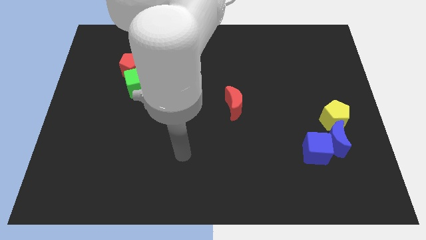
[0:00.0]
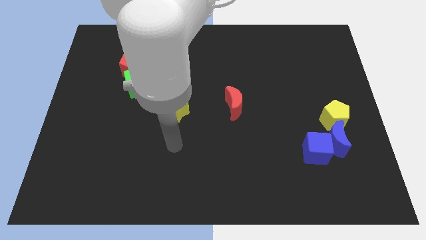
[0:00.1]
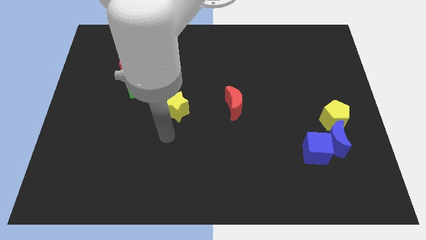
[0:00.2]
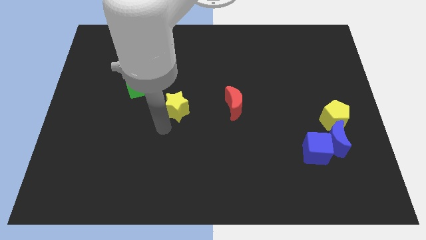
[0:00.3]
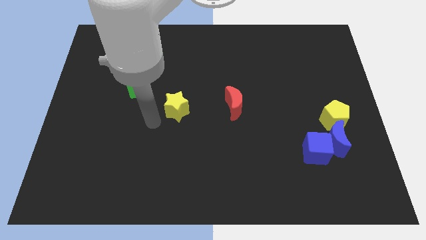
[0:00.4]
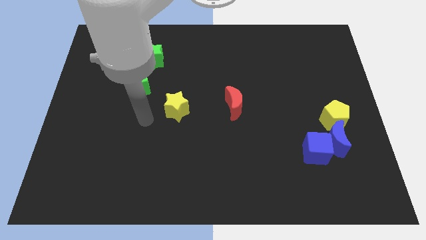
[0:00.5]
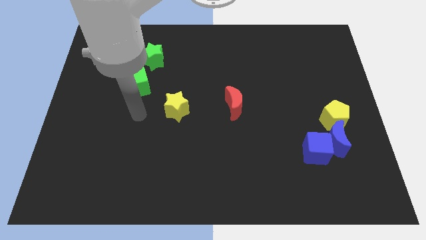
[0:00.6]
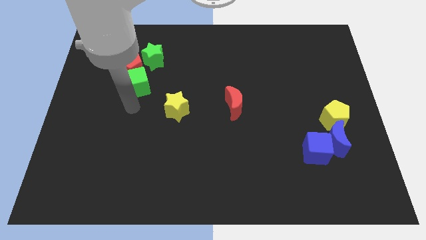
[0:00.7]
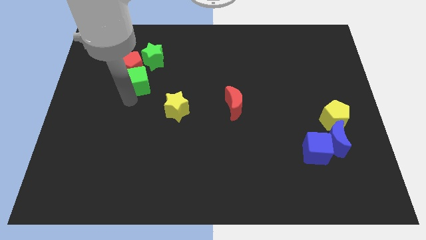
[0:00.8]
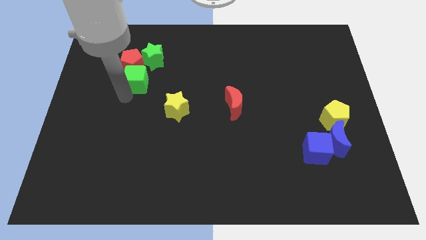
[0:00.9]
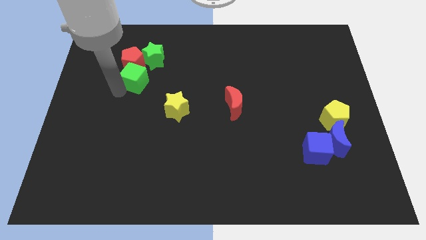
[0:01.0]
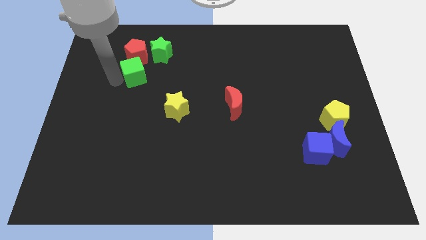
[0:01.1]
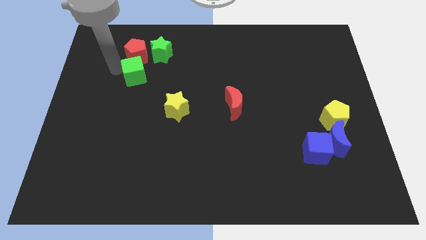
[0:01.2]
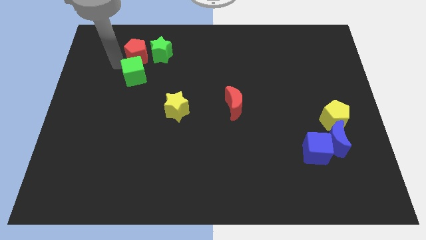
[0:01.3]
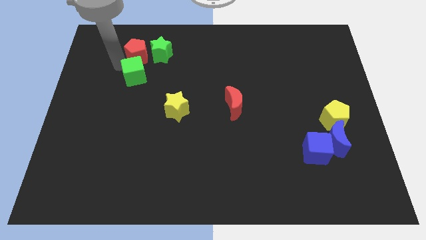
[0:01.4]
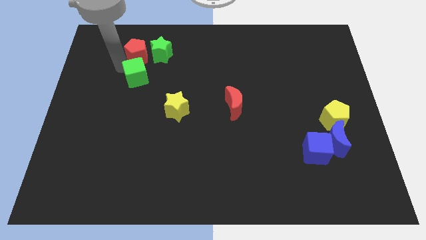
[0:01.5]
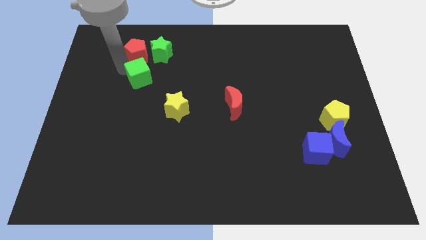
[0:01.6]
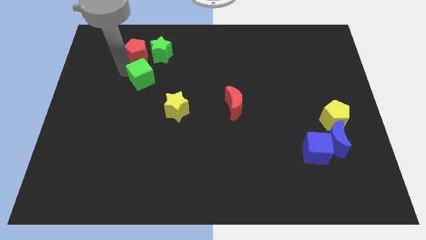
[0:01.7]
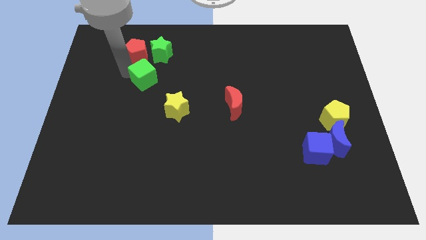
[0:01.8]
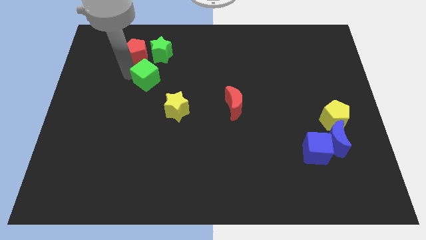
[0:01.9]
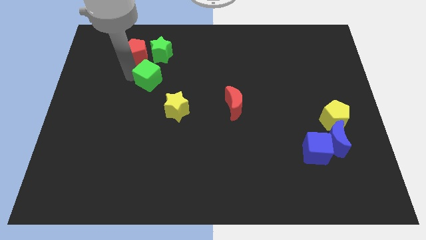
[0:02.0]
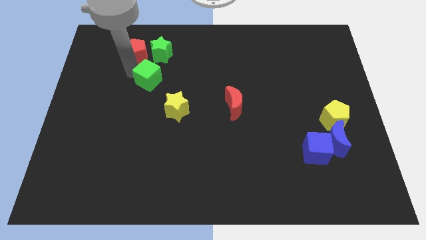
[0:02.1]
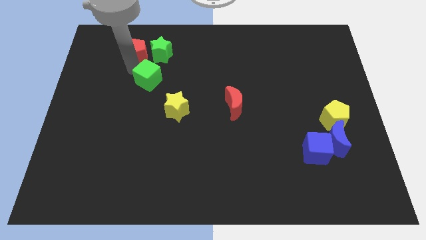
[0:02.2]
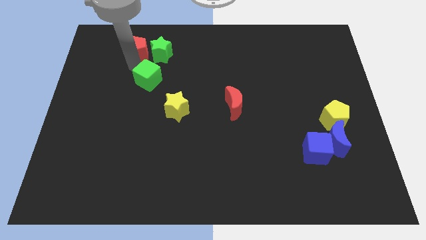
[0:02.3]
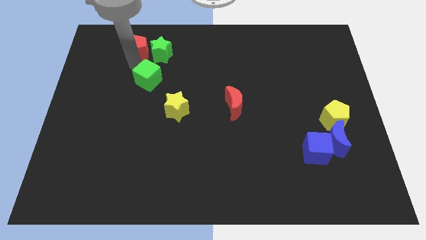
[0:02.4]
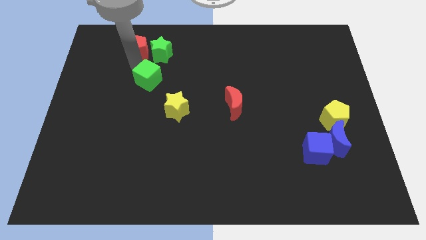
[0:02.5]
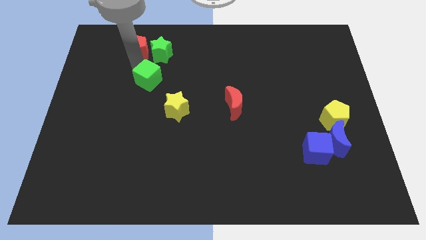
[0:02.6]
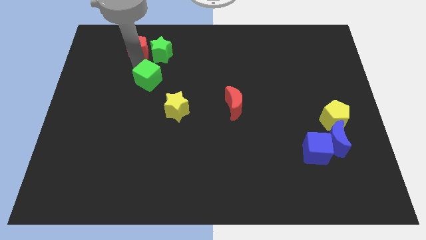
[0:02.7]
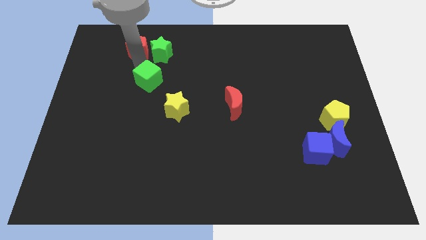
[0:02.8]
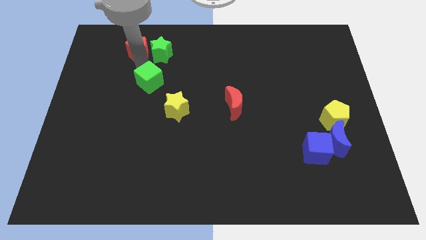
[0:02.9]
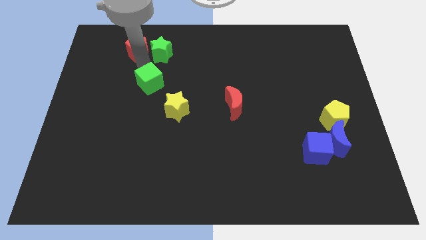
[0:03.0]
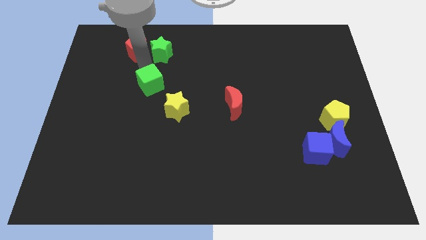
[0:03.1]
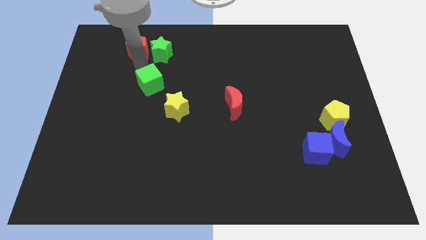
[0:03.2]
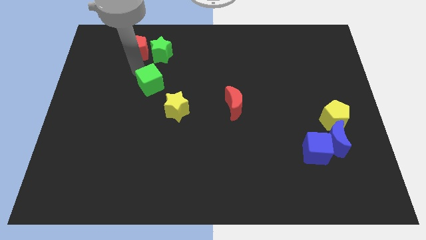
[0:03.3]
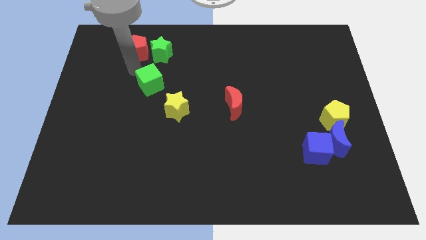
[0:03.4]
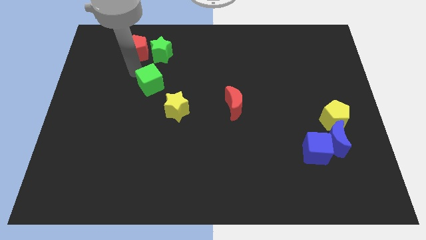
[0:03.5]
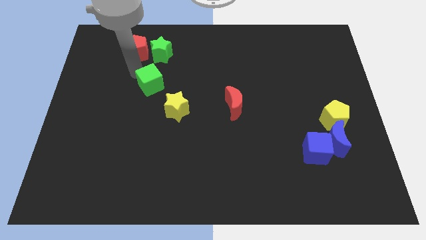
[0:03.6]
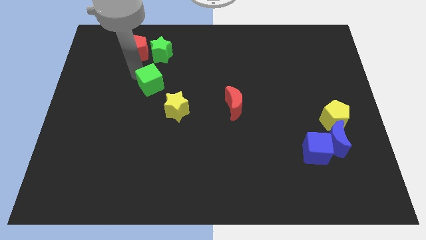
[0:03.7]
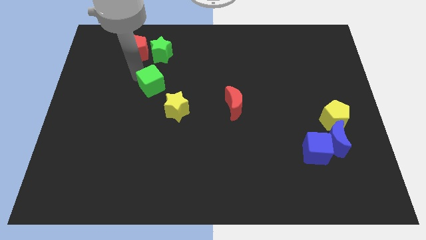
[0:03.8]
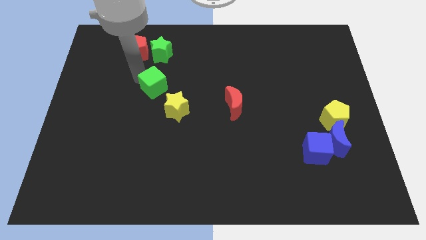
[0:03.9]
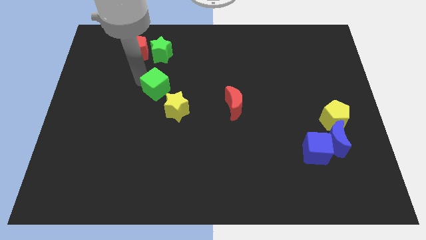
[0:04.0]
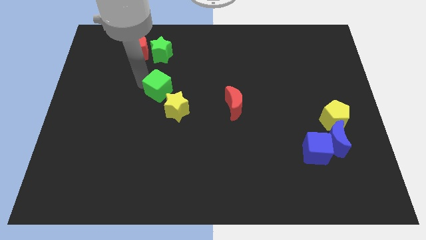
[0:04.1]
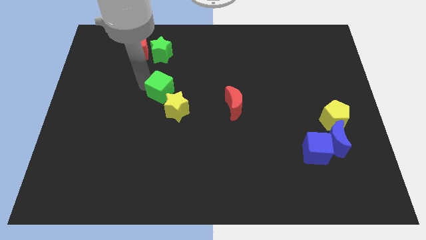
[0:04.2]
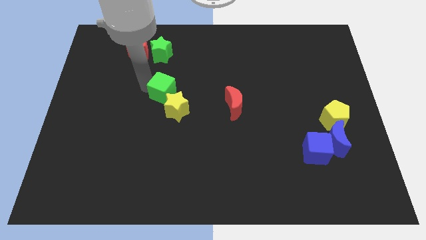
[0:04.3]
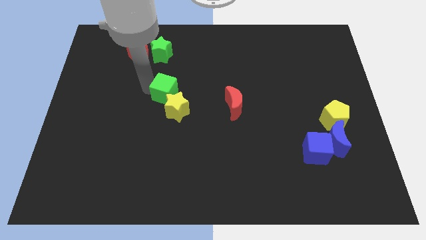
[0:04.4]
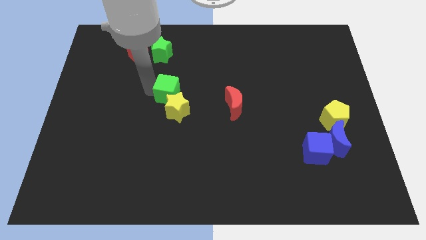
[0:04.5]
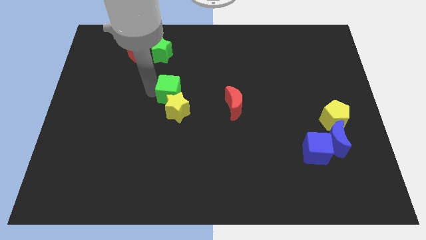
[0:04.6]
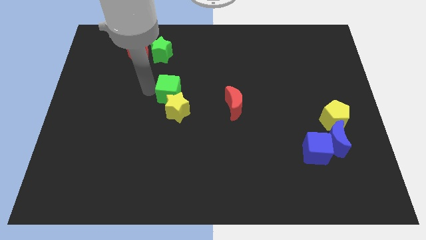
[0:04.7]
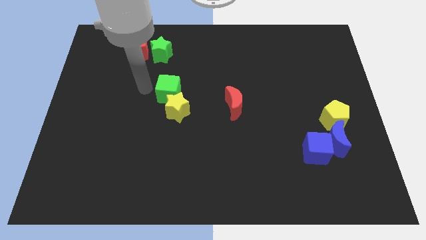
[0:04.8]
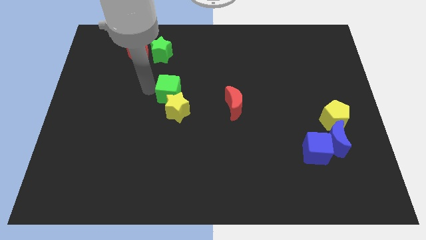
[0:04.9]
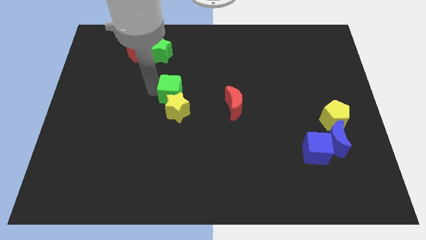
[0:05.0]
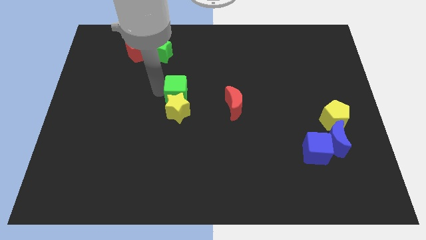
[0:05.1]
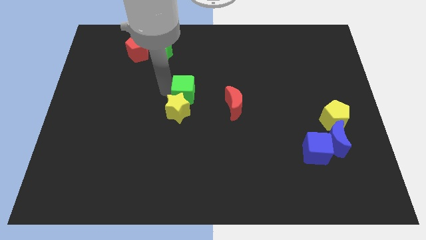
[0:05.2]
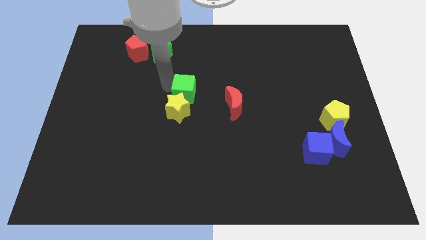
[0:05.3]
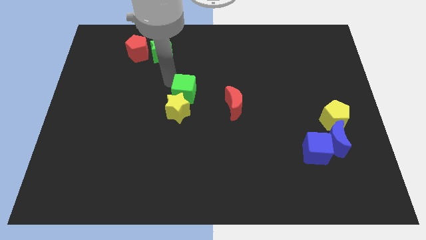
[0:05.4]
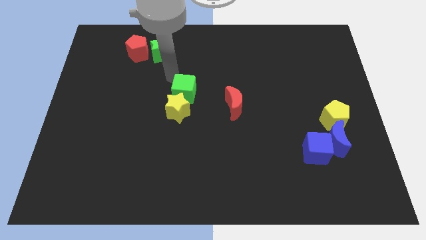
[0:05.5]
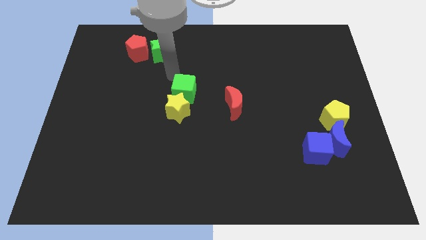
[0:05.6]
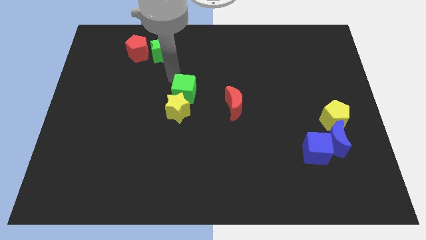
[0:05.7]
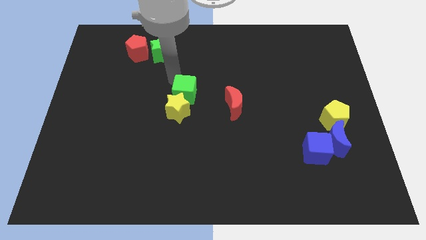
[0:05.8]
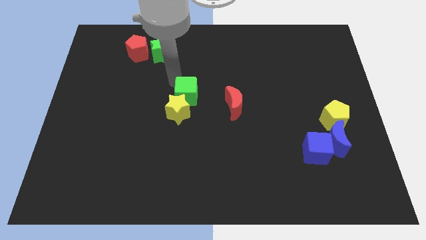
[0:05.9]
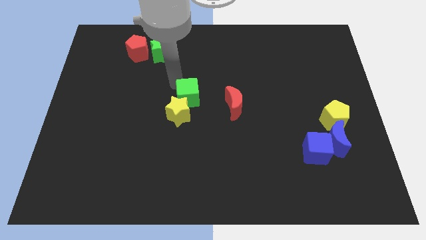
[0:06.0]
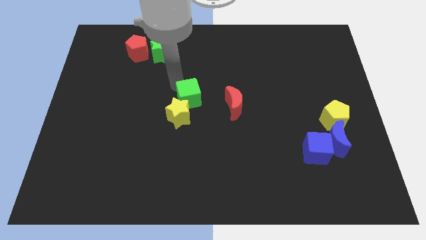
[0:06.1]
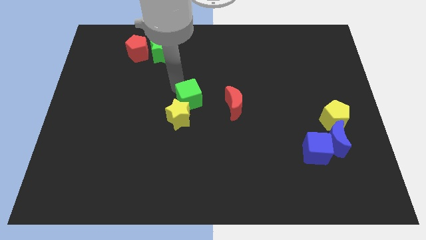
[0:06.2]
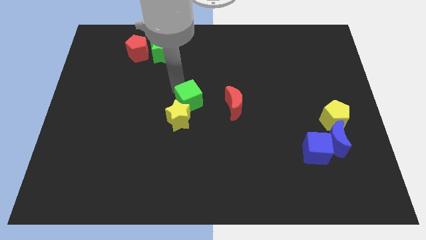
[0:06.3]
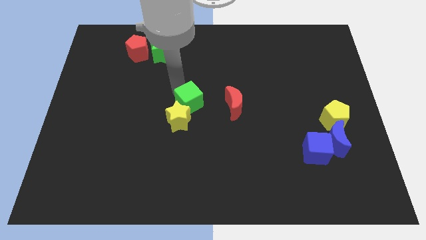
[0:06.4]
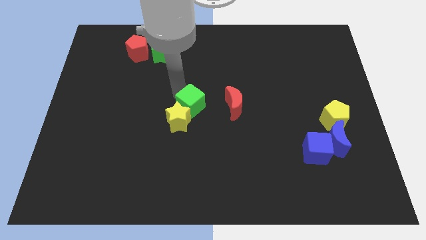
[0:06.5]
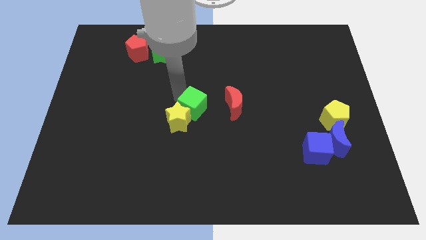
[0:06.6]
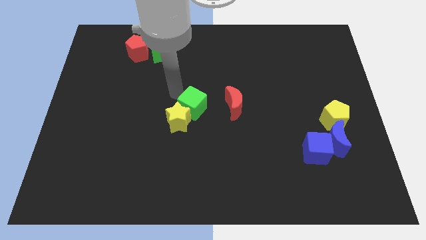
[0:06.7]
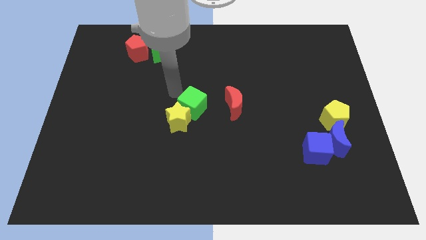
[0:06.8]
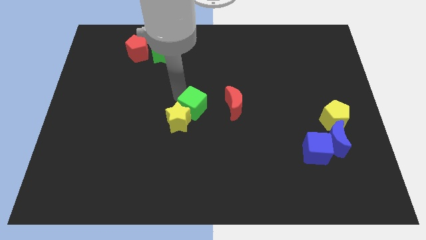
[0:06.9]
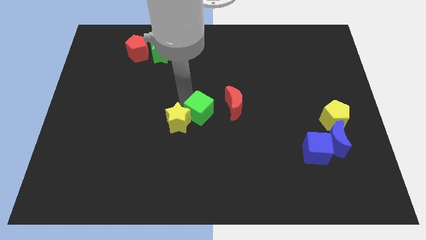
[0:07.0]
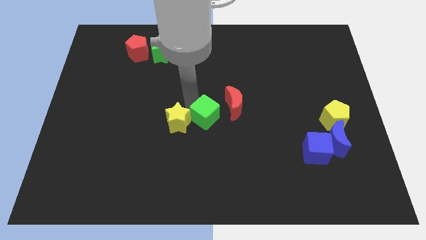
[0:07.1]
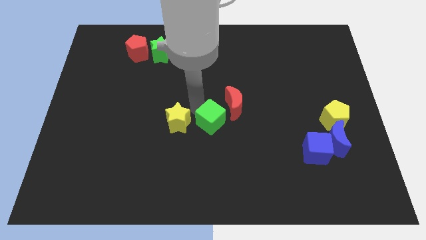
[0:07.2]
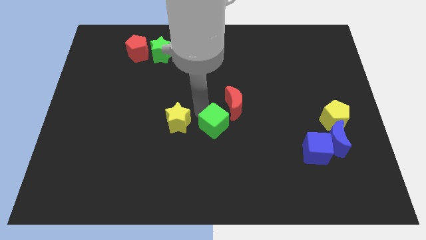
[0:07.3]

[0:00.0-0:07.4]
push the green cube to the bottom side of the red moon
